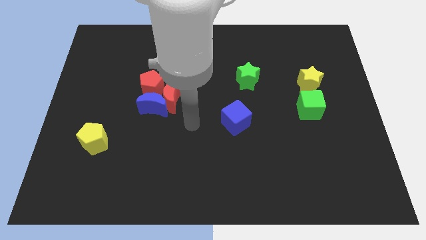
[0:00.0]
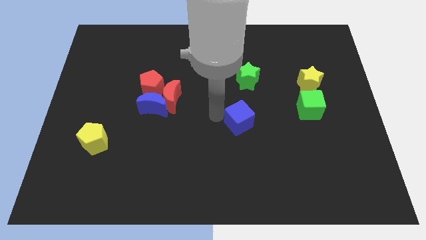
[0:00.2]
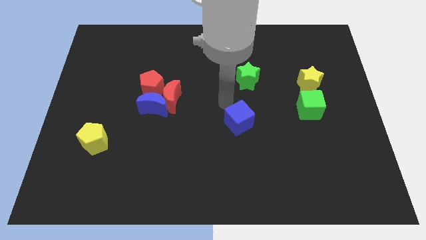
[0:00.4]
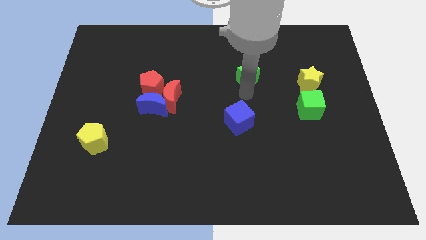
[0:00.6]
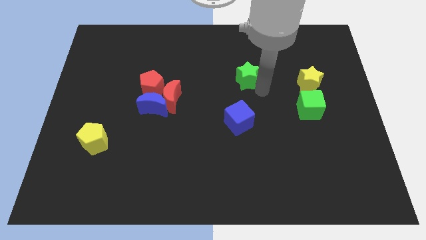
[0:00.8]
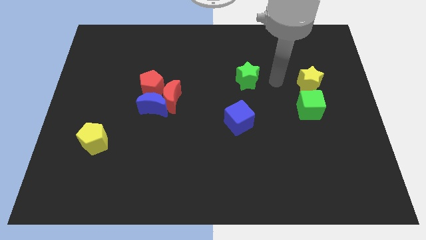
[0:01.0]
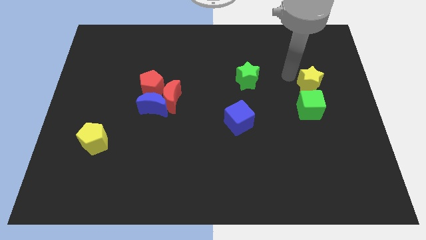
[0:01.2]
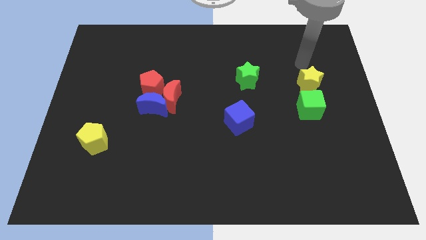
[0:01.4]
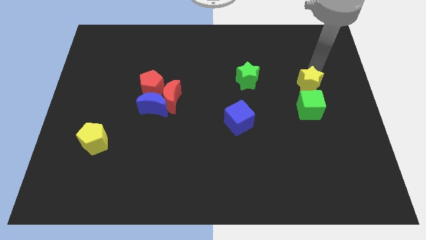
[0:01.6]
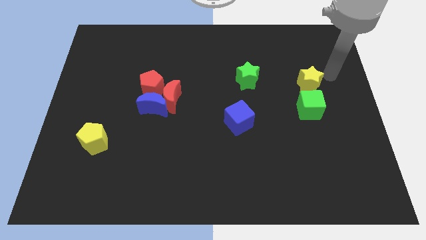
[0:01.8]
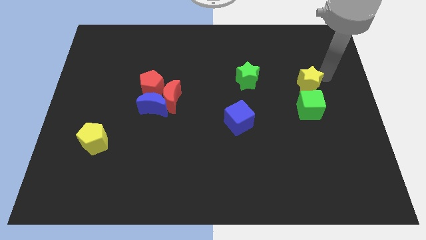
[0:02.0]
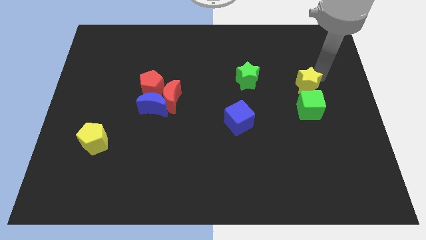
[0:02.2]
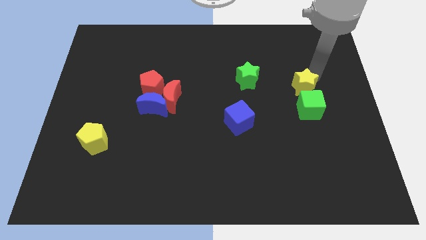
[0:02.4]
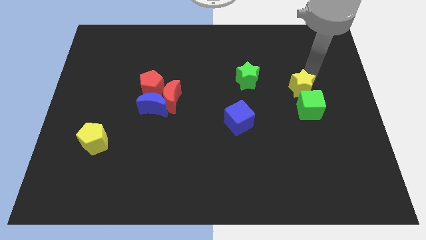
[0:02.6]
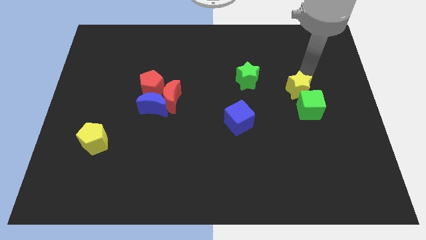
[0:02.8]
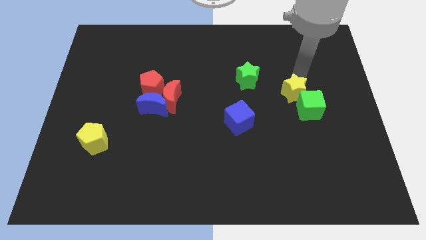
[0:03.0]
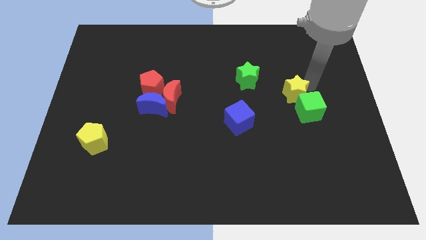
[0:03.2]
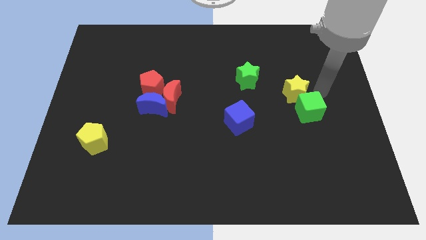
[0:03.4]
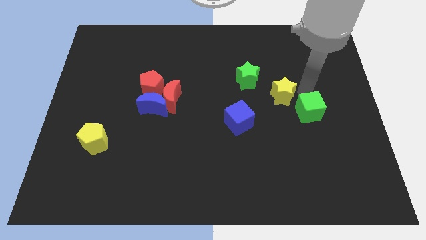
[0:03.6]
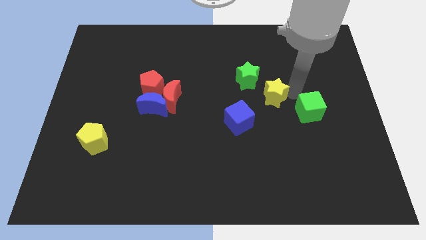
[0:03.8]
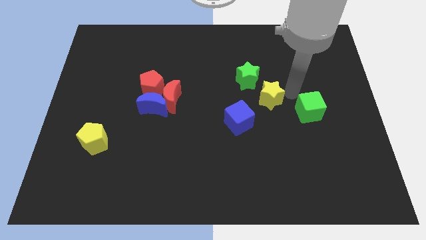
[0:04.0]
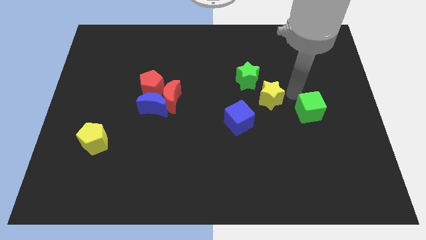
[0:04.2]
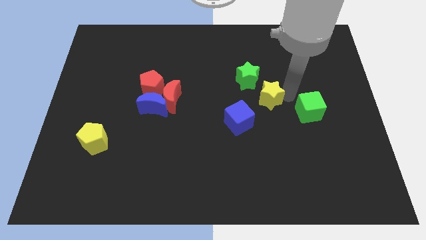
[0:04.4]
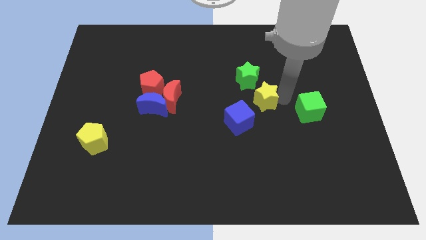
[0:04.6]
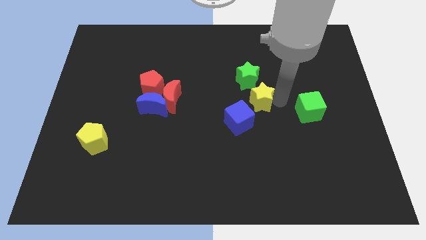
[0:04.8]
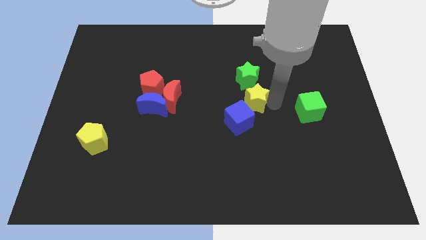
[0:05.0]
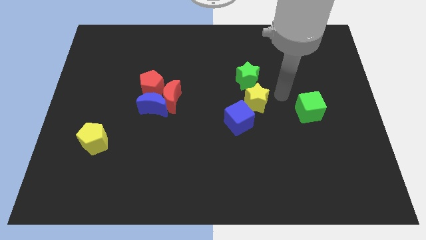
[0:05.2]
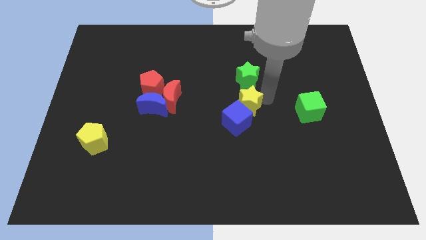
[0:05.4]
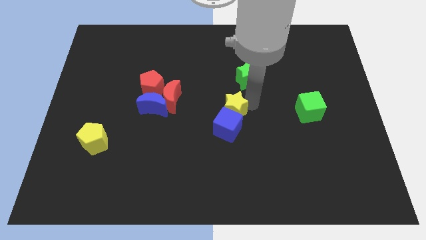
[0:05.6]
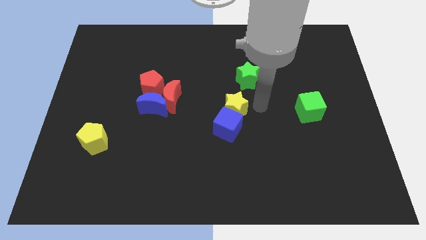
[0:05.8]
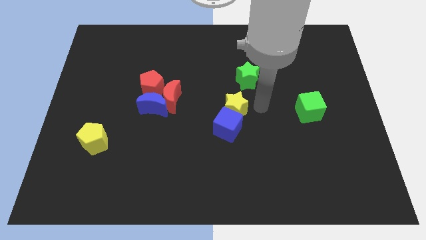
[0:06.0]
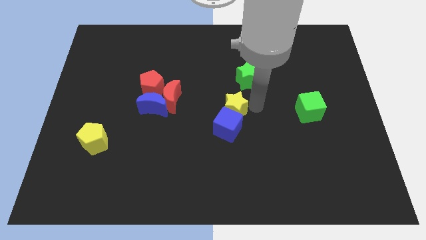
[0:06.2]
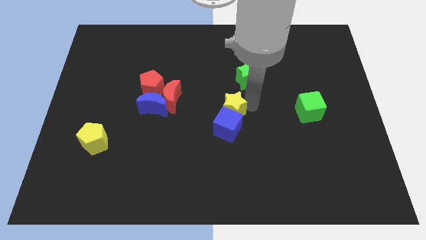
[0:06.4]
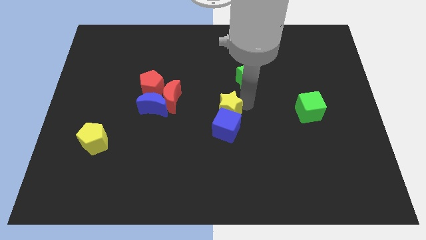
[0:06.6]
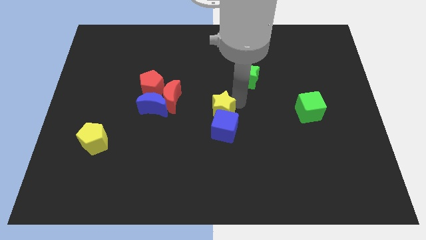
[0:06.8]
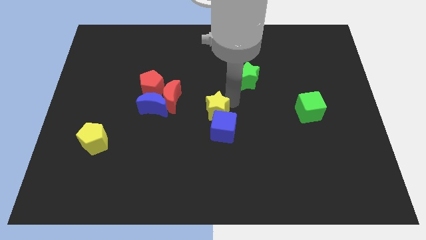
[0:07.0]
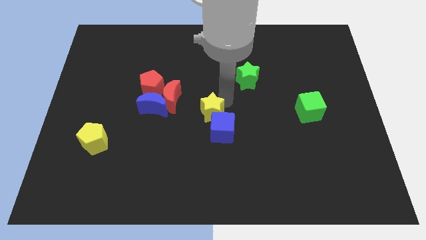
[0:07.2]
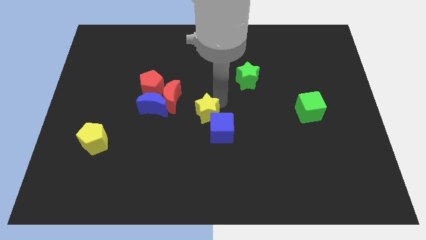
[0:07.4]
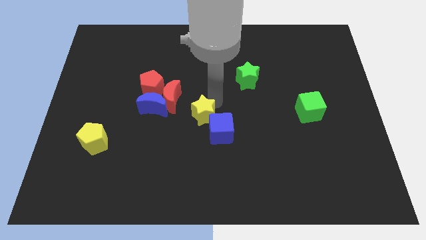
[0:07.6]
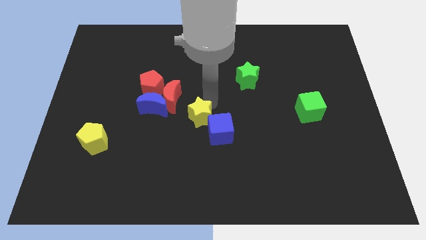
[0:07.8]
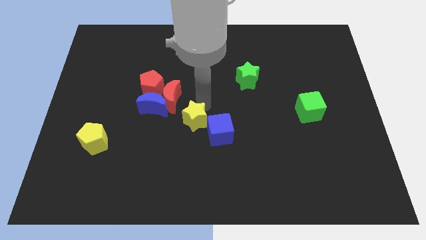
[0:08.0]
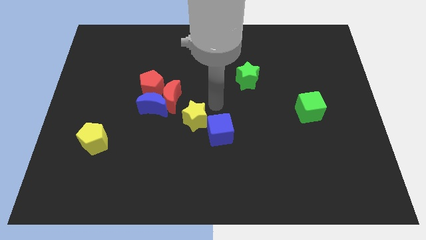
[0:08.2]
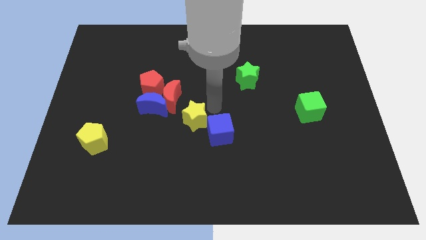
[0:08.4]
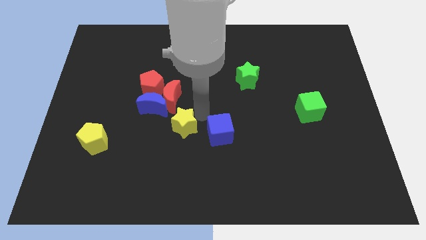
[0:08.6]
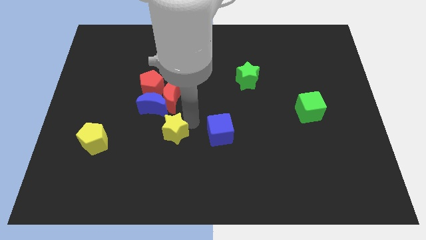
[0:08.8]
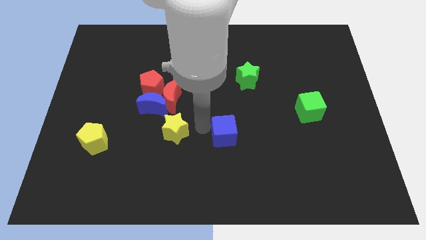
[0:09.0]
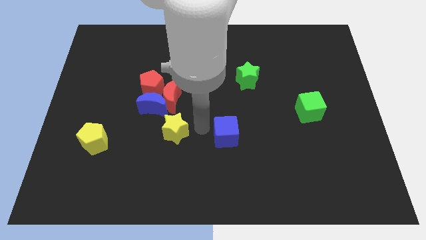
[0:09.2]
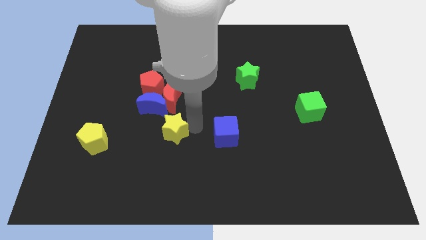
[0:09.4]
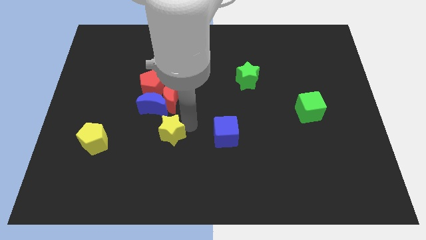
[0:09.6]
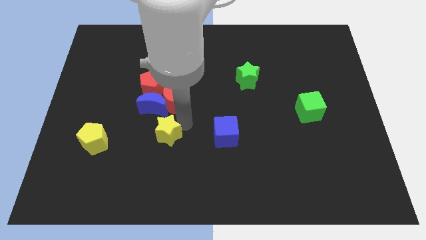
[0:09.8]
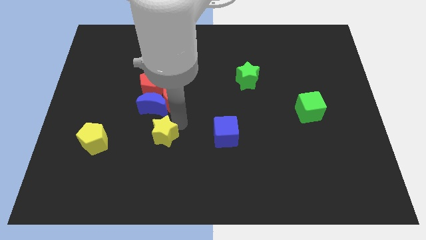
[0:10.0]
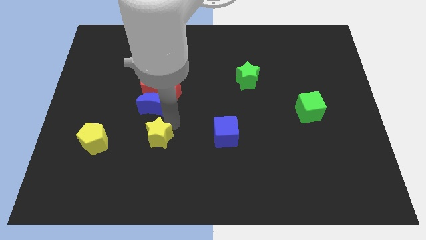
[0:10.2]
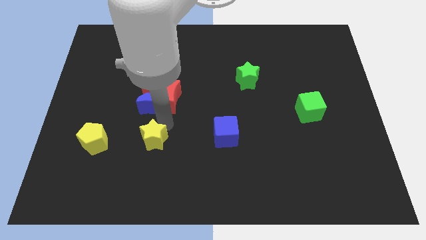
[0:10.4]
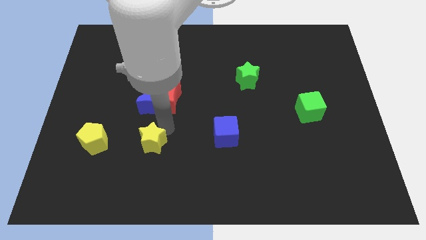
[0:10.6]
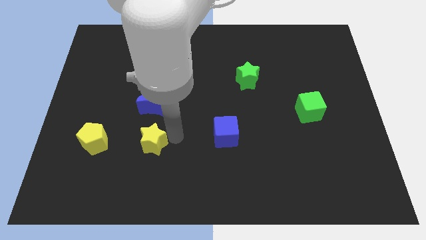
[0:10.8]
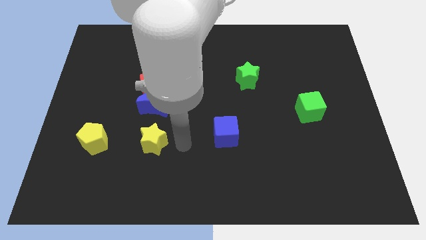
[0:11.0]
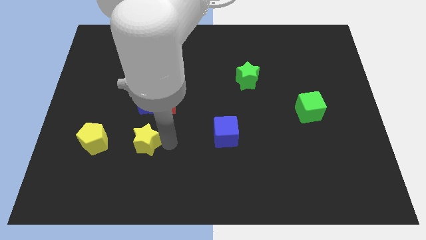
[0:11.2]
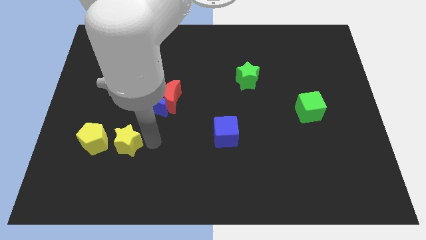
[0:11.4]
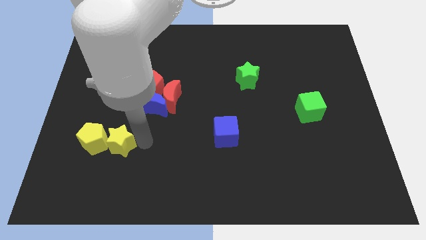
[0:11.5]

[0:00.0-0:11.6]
slide the yellow star towards the yellow pentagon

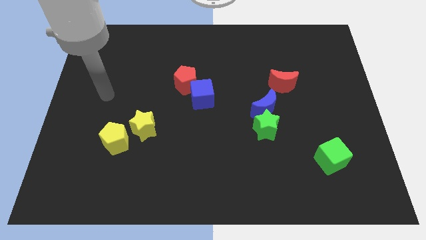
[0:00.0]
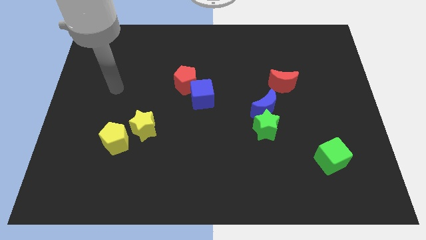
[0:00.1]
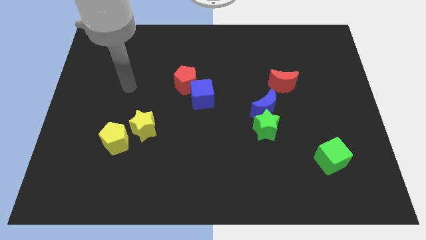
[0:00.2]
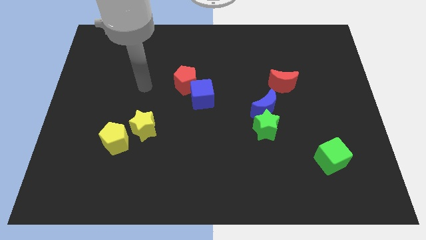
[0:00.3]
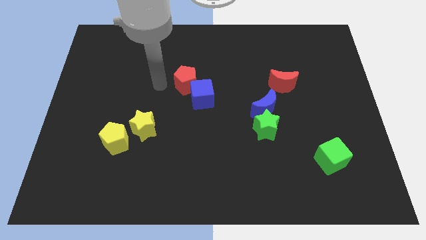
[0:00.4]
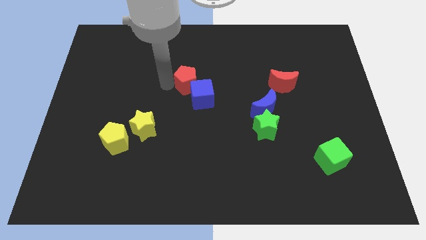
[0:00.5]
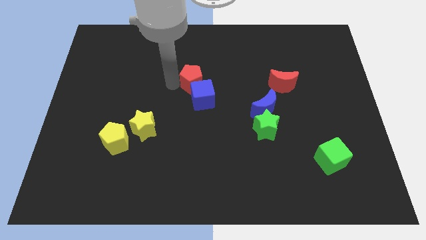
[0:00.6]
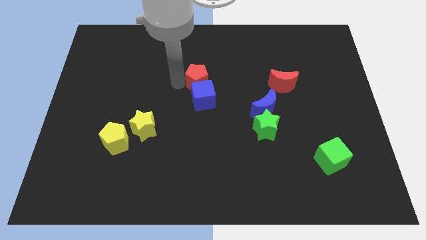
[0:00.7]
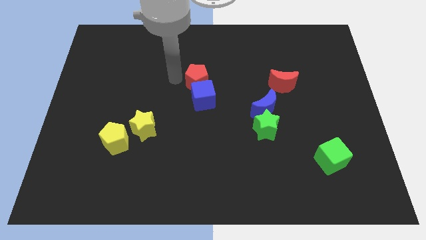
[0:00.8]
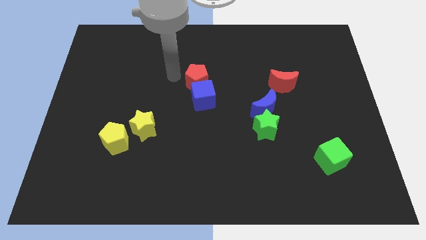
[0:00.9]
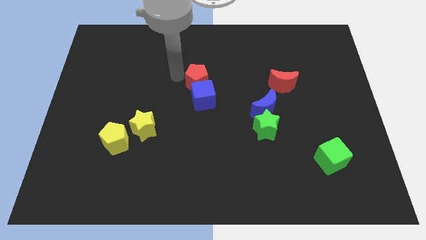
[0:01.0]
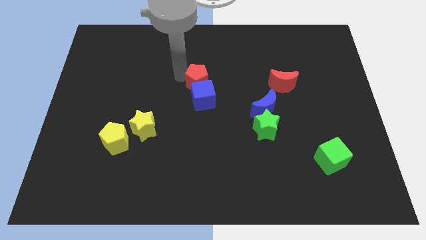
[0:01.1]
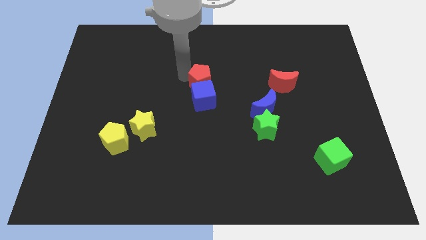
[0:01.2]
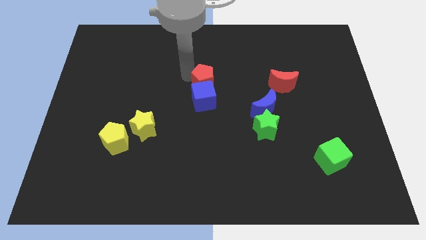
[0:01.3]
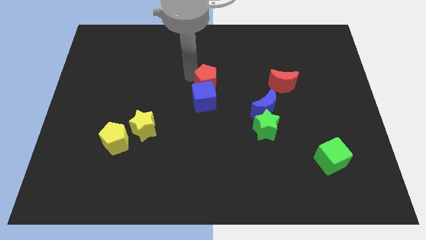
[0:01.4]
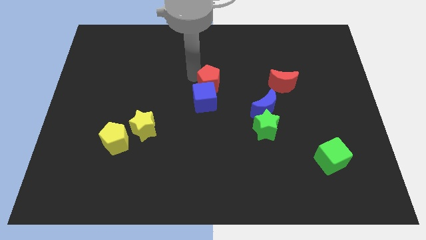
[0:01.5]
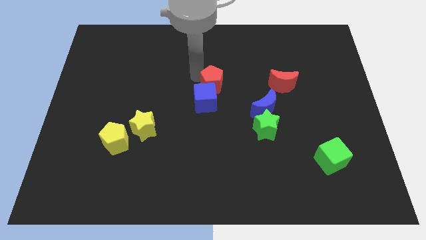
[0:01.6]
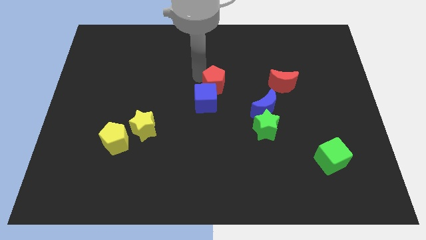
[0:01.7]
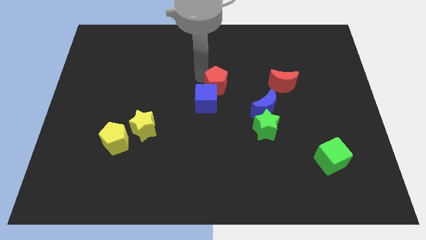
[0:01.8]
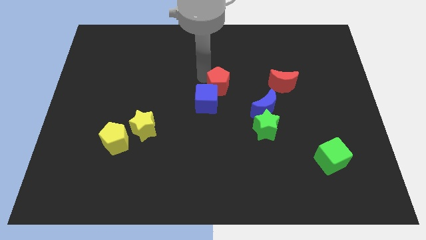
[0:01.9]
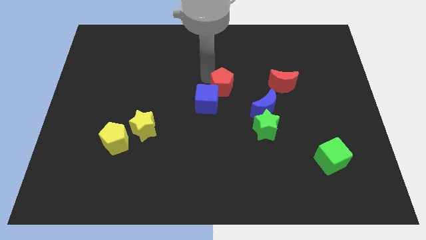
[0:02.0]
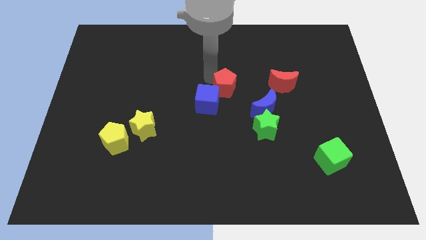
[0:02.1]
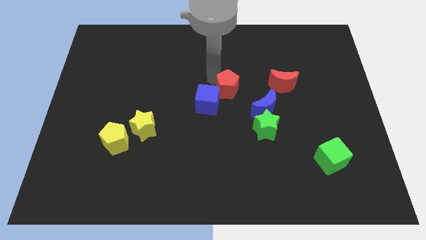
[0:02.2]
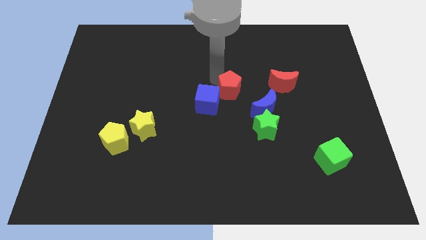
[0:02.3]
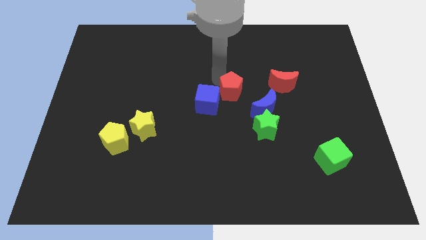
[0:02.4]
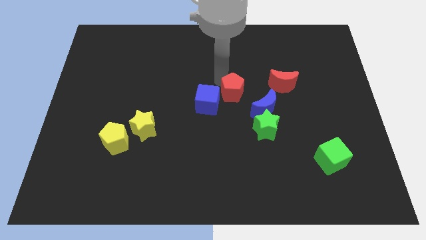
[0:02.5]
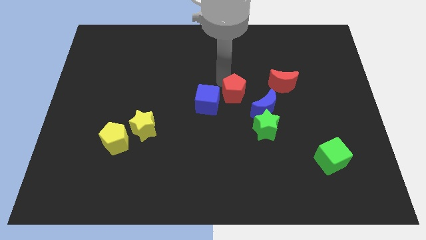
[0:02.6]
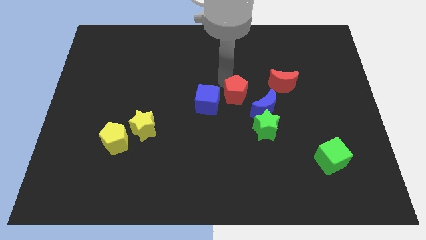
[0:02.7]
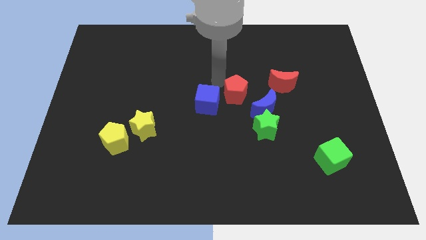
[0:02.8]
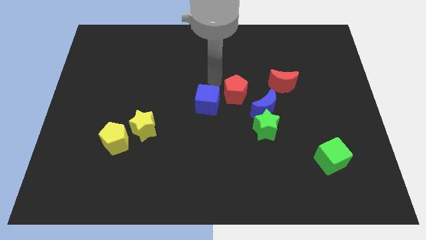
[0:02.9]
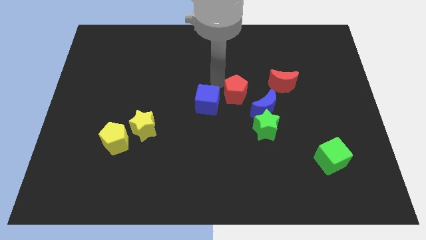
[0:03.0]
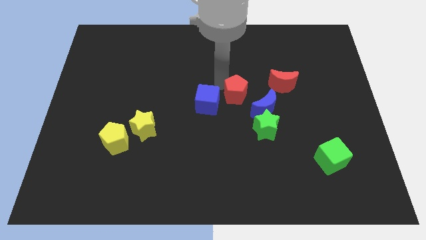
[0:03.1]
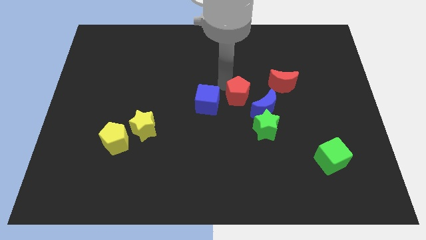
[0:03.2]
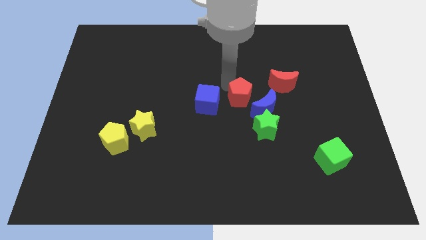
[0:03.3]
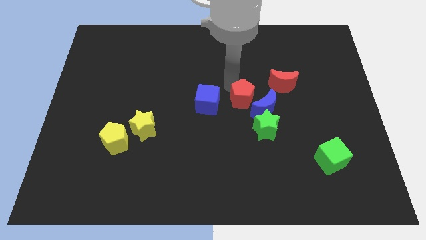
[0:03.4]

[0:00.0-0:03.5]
push the red pentagon next to the blue moon
